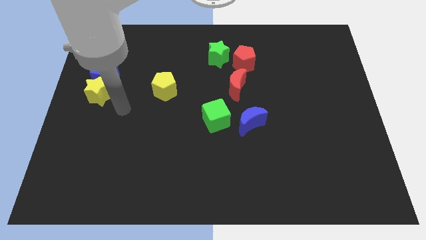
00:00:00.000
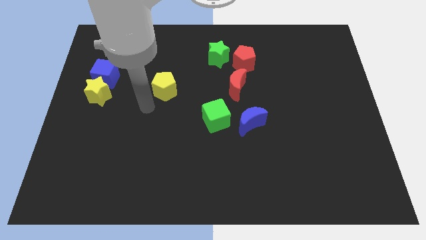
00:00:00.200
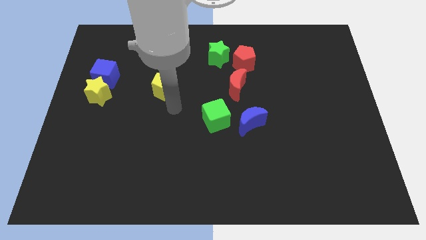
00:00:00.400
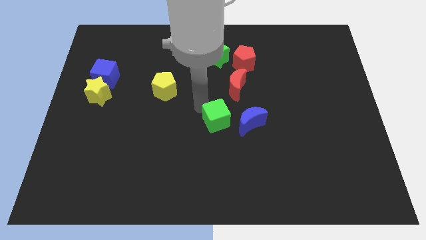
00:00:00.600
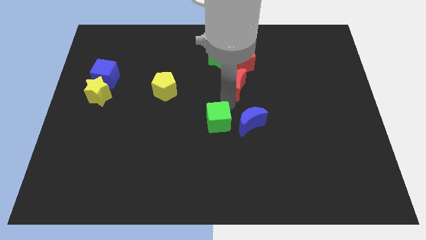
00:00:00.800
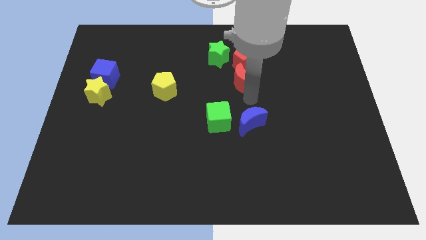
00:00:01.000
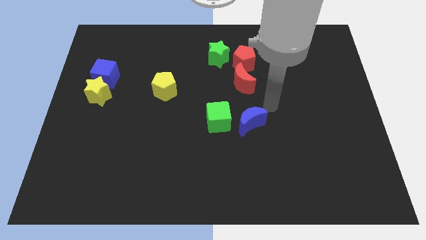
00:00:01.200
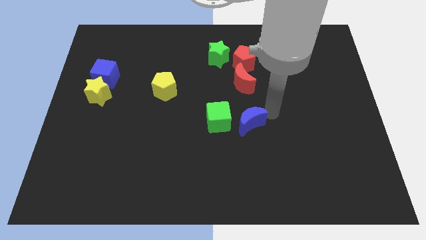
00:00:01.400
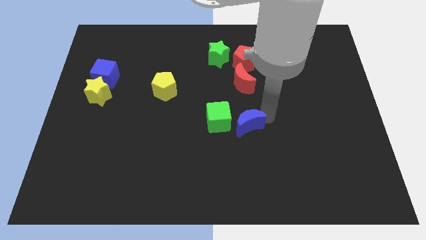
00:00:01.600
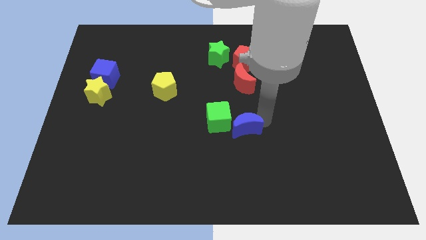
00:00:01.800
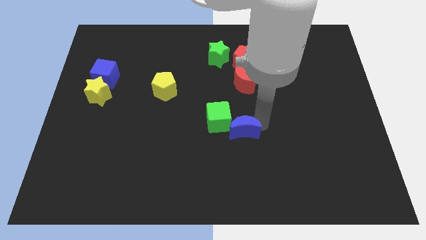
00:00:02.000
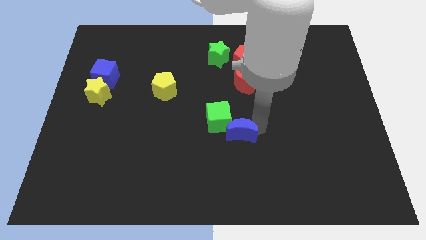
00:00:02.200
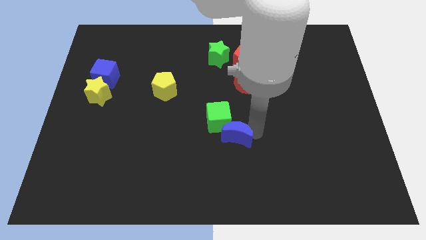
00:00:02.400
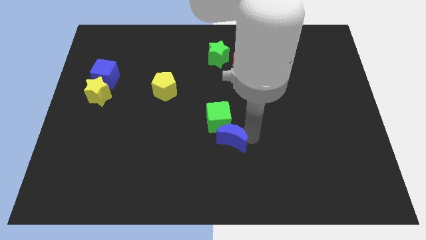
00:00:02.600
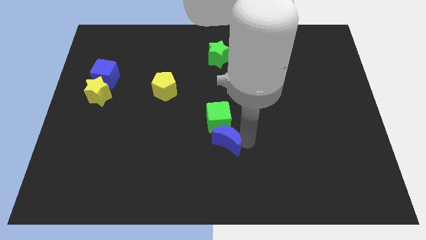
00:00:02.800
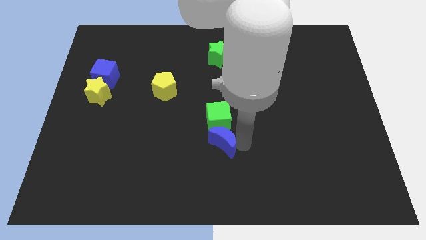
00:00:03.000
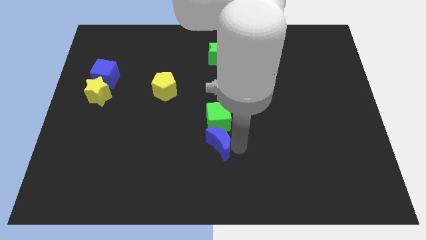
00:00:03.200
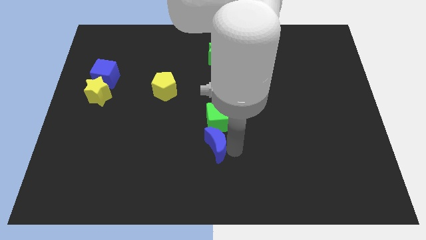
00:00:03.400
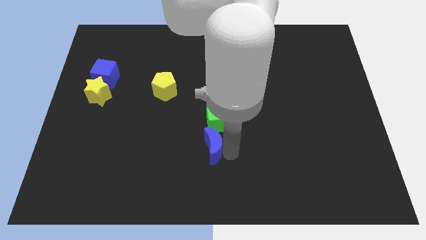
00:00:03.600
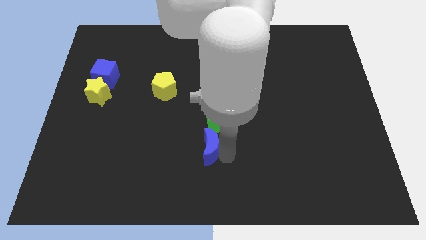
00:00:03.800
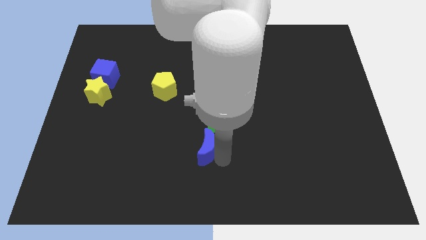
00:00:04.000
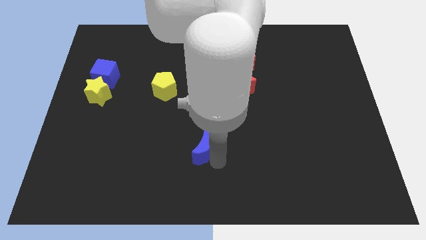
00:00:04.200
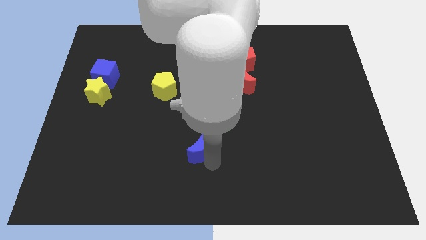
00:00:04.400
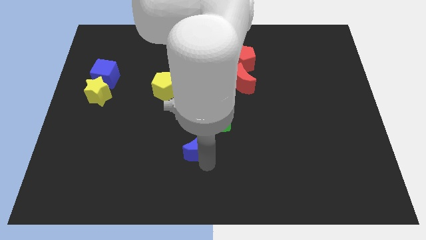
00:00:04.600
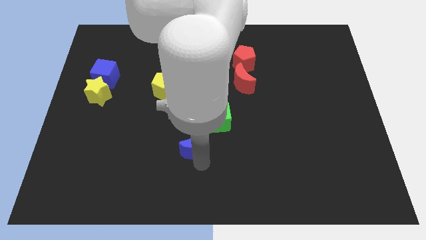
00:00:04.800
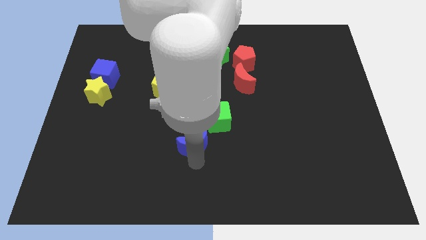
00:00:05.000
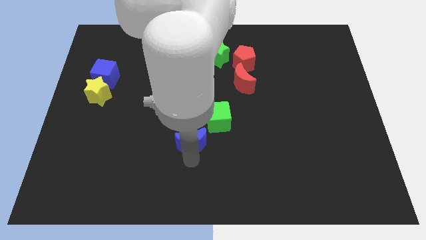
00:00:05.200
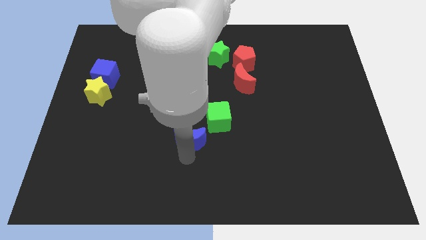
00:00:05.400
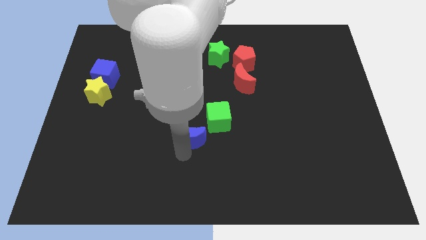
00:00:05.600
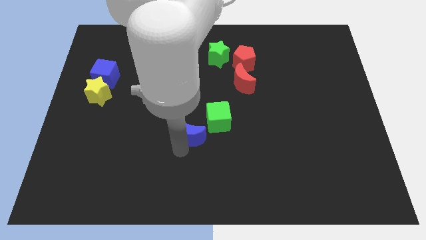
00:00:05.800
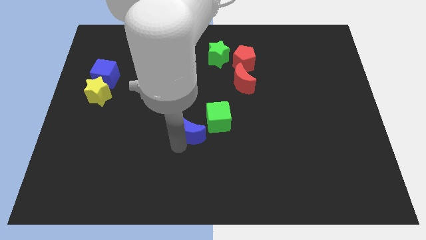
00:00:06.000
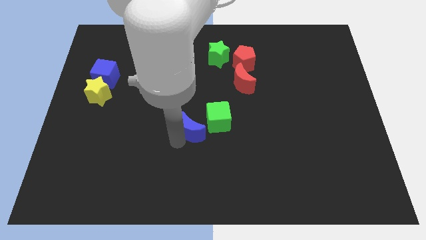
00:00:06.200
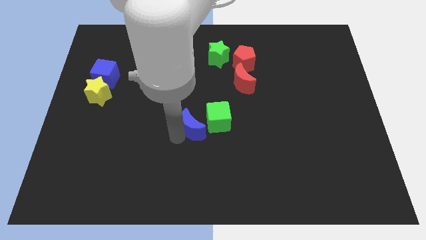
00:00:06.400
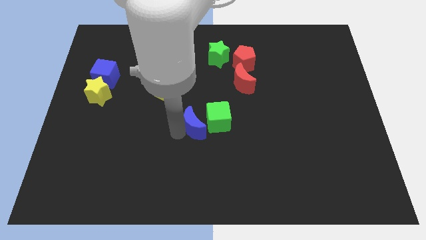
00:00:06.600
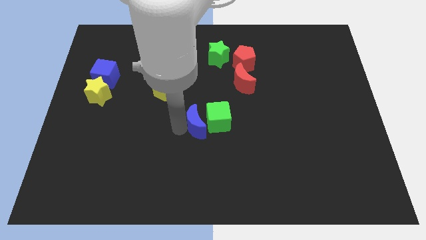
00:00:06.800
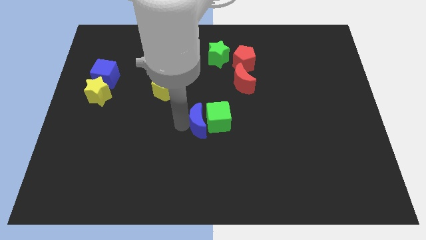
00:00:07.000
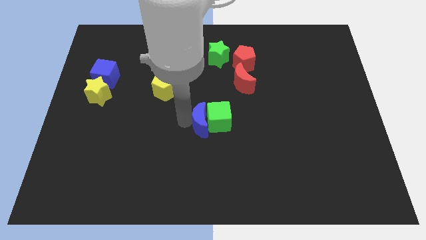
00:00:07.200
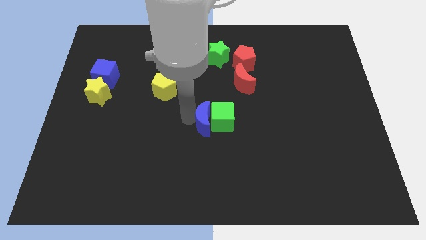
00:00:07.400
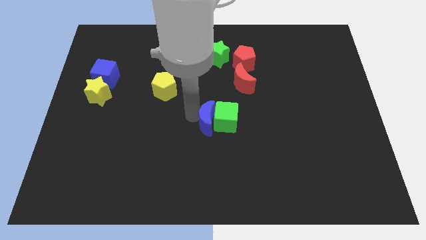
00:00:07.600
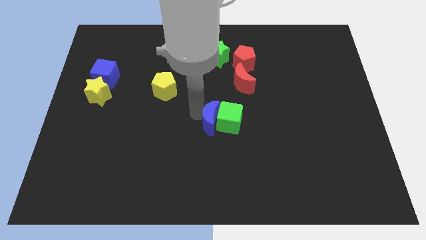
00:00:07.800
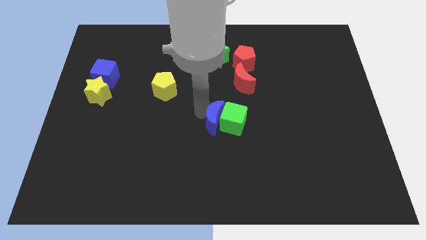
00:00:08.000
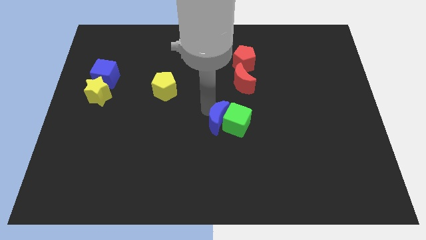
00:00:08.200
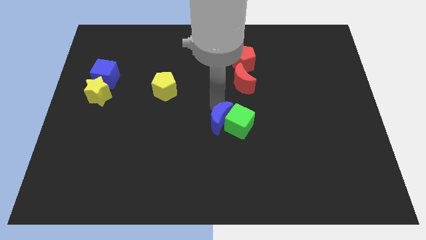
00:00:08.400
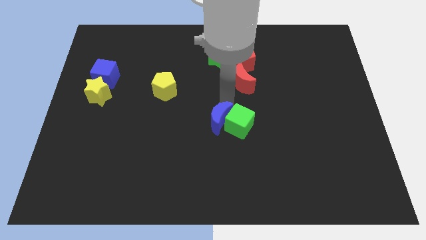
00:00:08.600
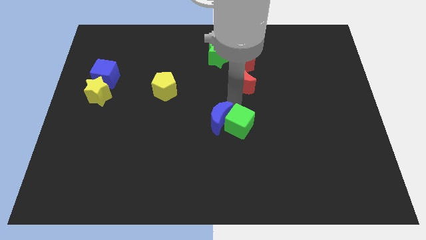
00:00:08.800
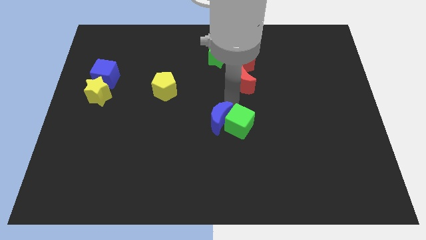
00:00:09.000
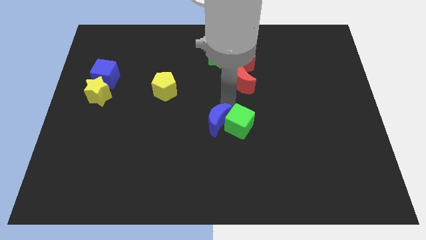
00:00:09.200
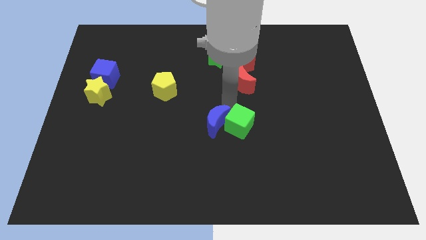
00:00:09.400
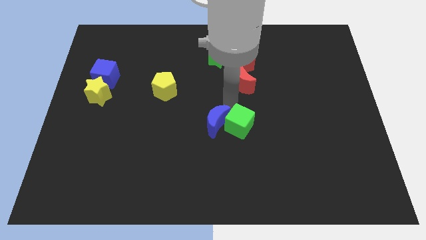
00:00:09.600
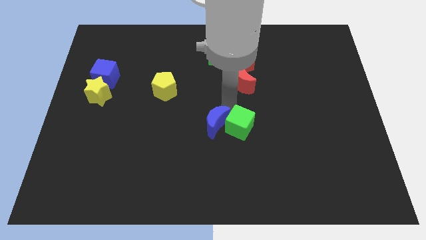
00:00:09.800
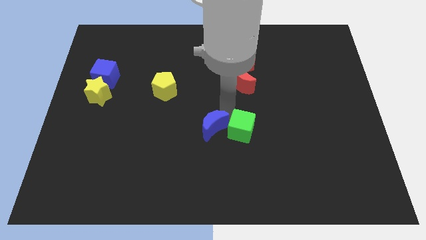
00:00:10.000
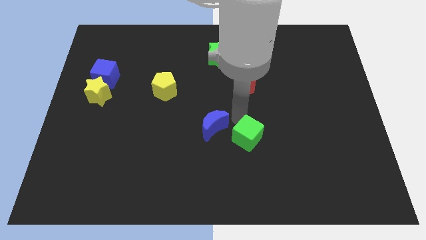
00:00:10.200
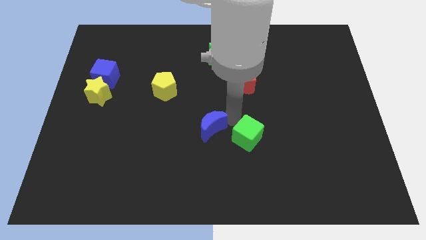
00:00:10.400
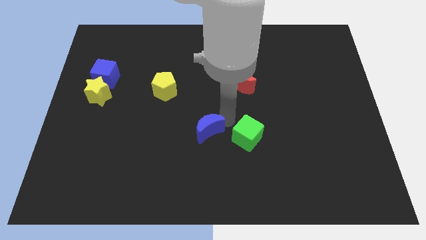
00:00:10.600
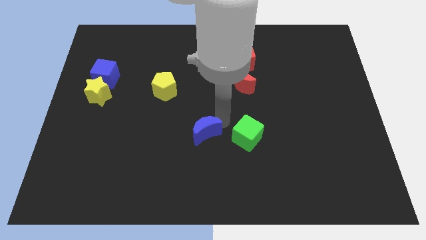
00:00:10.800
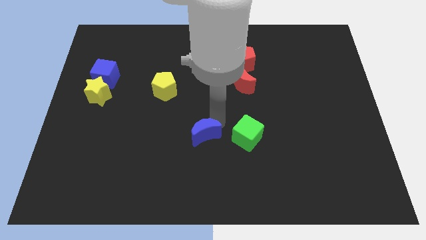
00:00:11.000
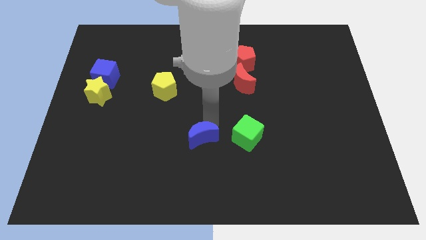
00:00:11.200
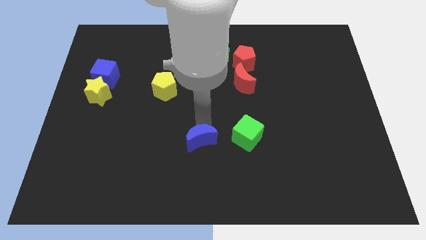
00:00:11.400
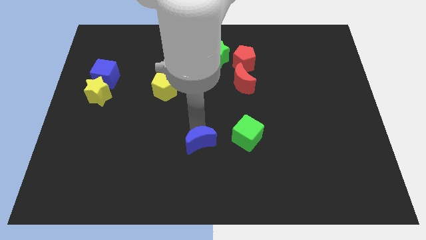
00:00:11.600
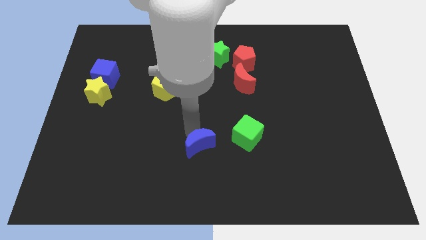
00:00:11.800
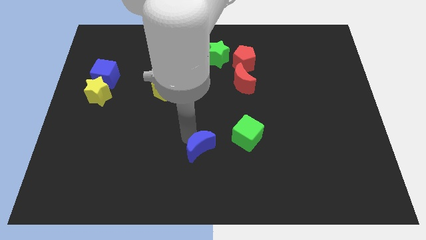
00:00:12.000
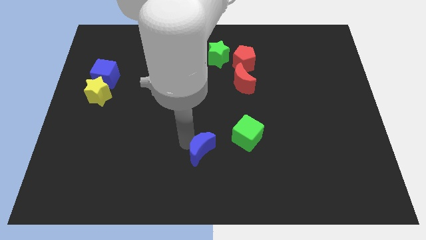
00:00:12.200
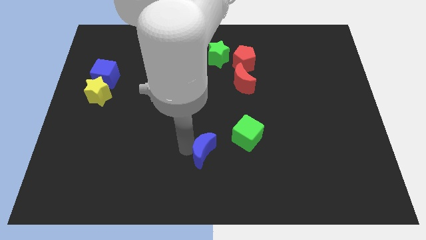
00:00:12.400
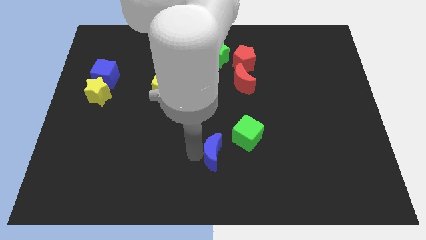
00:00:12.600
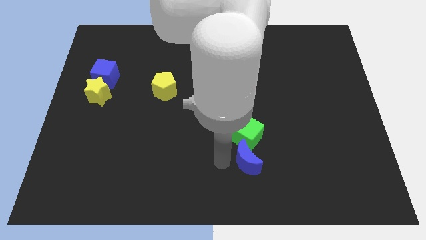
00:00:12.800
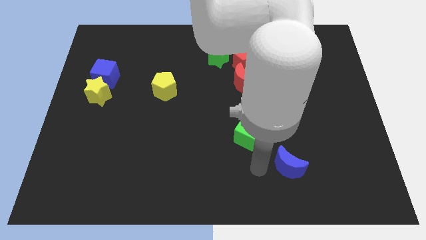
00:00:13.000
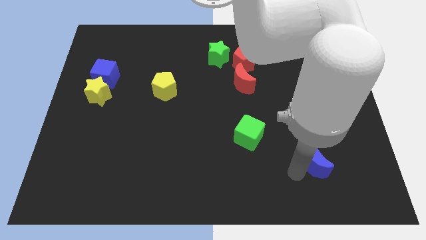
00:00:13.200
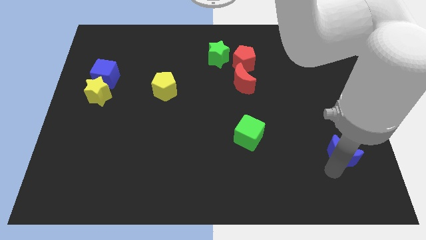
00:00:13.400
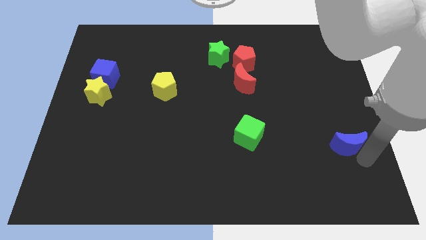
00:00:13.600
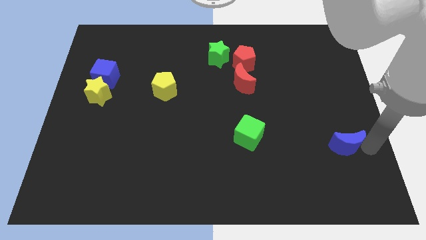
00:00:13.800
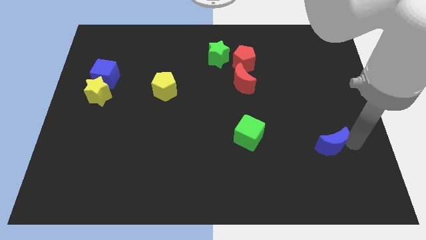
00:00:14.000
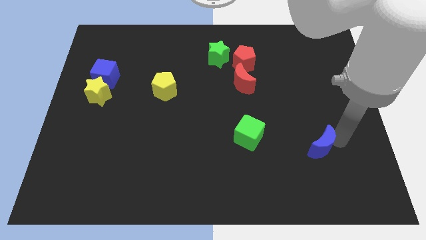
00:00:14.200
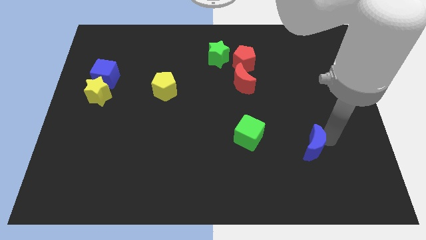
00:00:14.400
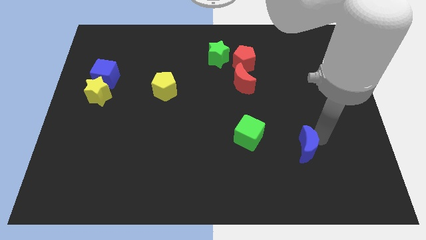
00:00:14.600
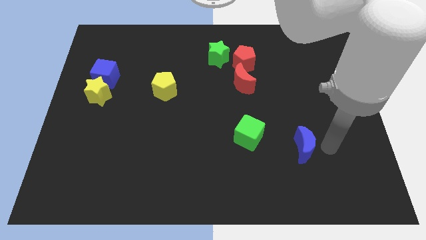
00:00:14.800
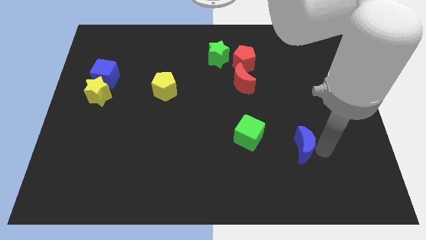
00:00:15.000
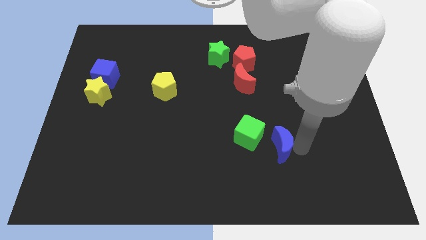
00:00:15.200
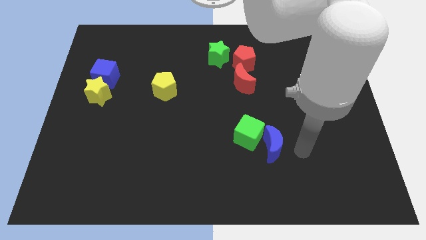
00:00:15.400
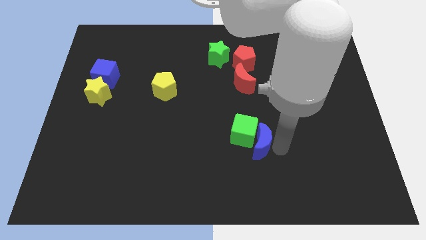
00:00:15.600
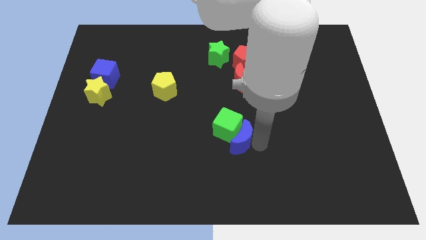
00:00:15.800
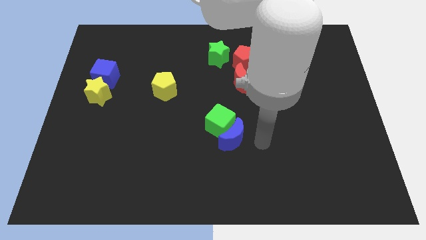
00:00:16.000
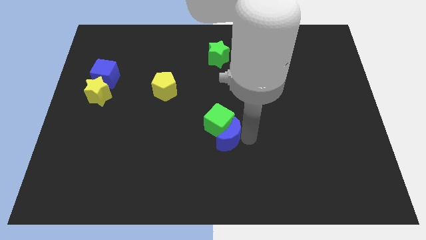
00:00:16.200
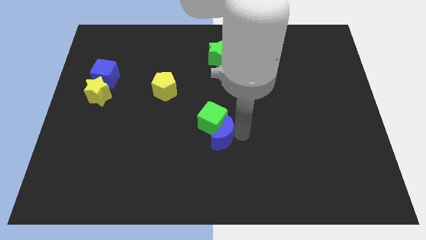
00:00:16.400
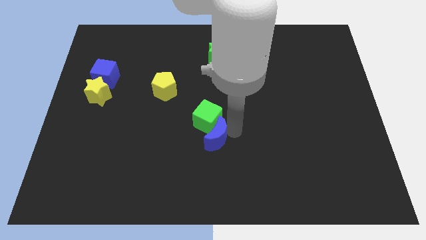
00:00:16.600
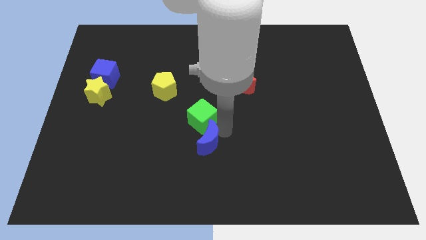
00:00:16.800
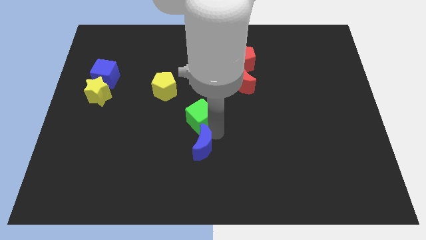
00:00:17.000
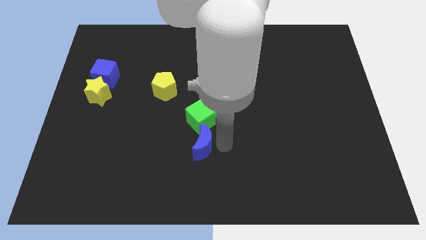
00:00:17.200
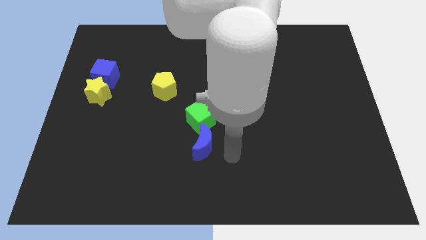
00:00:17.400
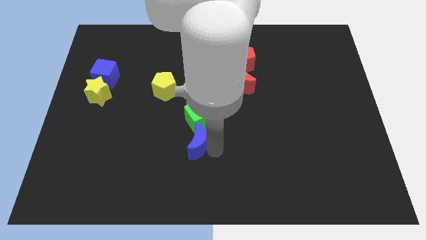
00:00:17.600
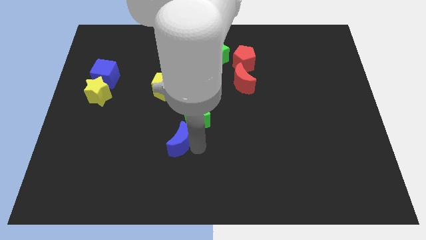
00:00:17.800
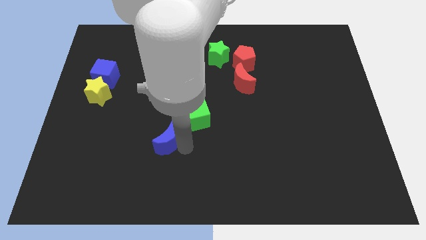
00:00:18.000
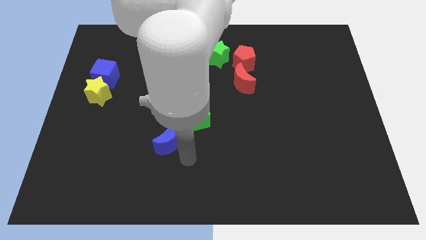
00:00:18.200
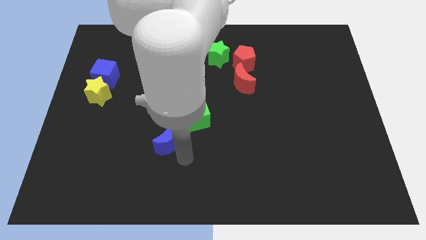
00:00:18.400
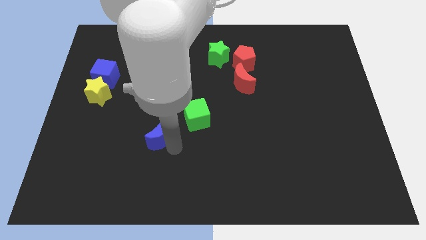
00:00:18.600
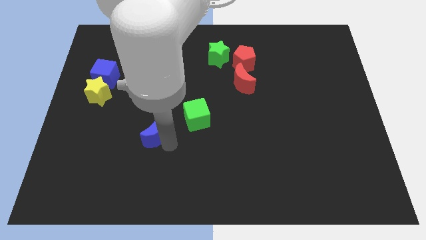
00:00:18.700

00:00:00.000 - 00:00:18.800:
move the blue moon to the left
